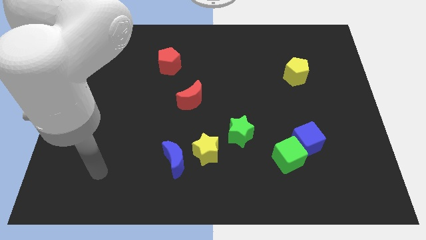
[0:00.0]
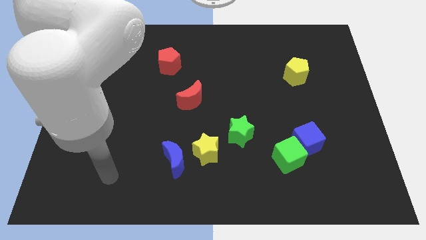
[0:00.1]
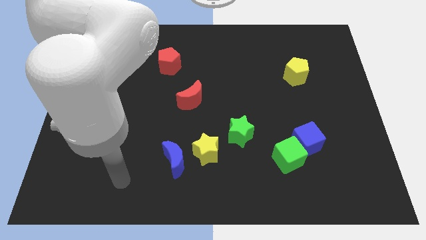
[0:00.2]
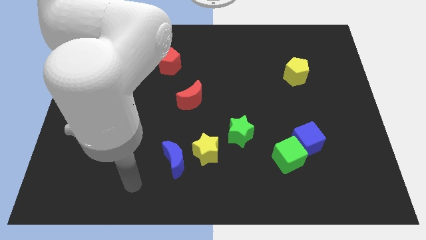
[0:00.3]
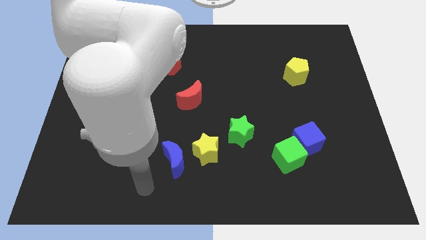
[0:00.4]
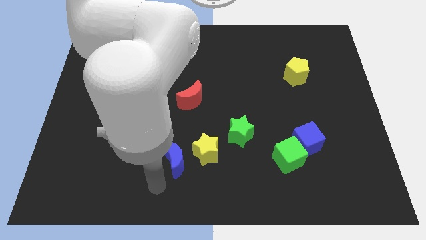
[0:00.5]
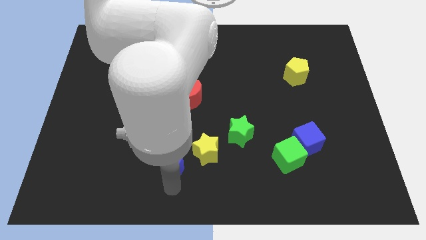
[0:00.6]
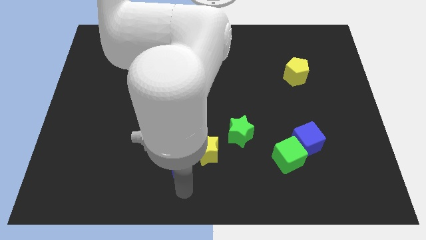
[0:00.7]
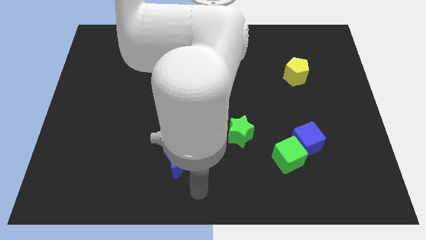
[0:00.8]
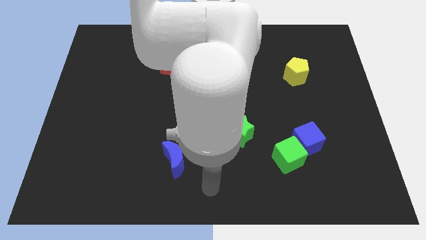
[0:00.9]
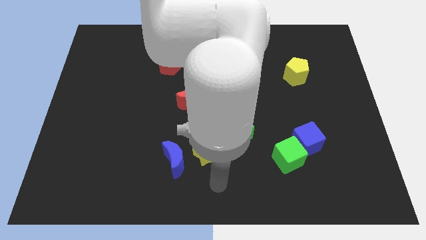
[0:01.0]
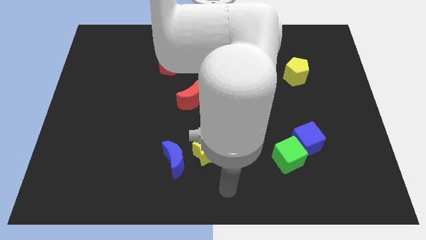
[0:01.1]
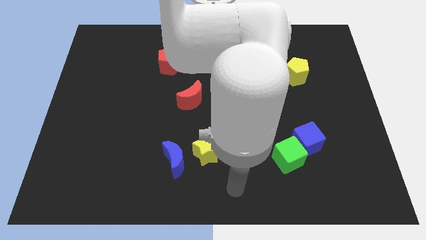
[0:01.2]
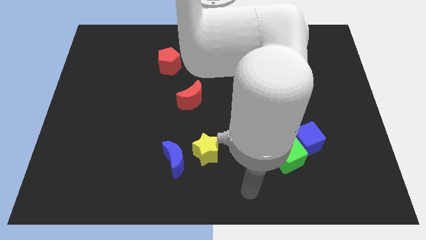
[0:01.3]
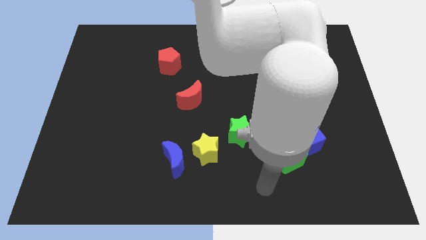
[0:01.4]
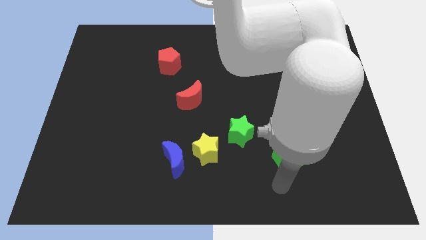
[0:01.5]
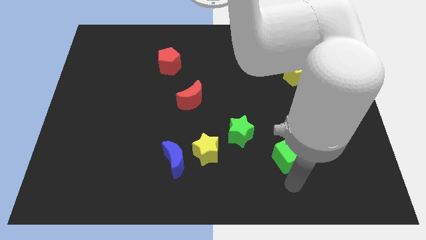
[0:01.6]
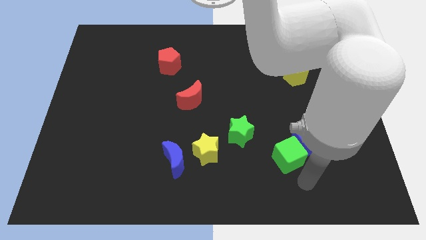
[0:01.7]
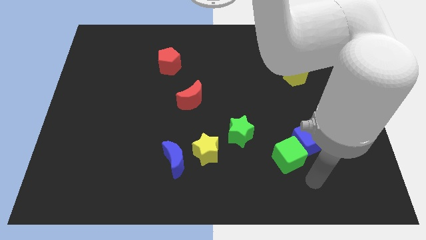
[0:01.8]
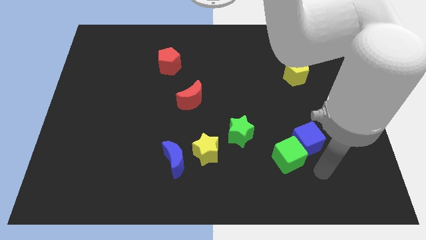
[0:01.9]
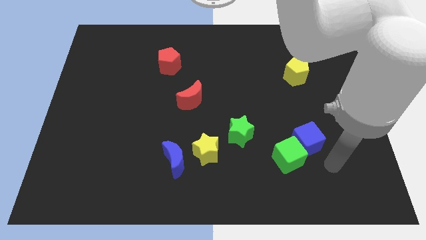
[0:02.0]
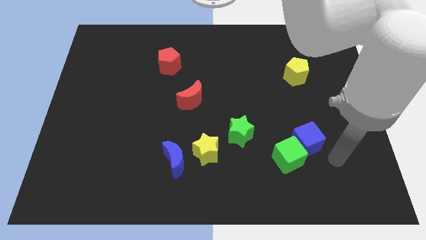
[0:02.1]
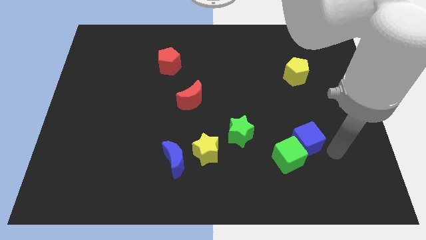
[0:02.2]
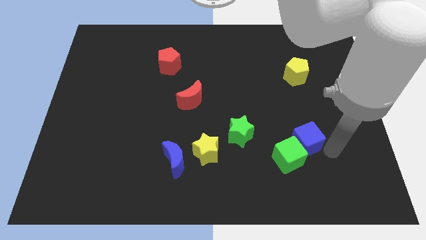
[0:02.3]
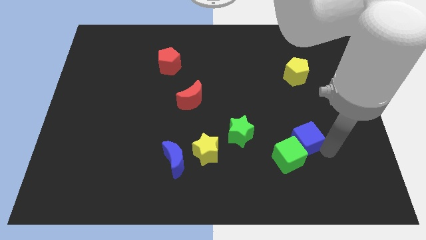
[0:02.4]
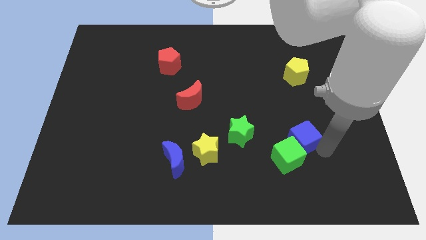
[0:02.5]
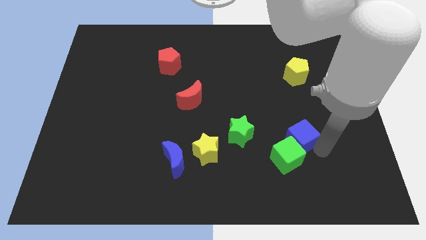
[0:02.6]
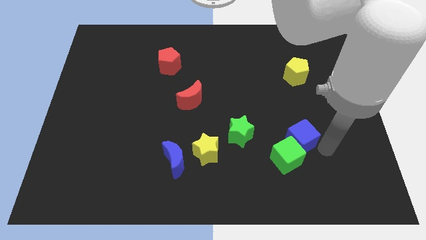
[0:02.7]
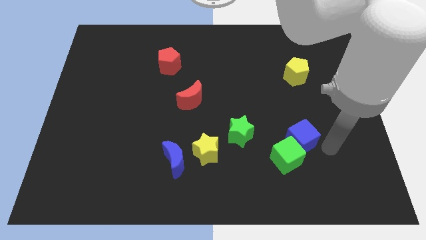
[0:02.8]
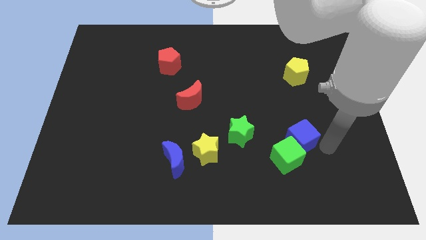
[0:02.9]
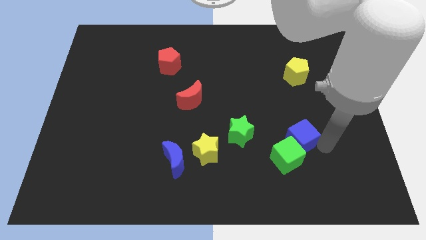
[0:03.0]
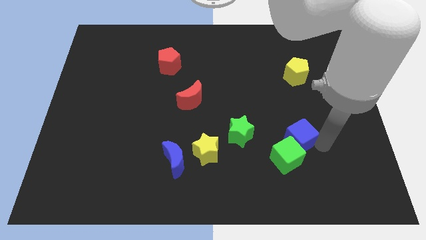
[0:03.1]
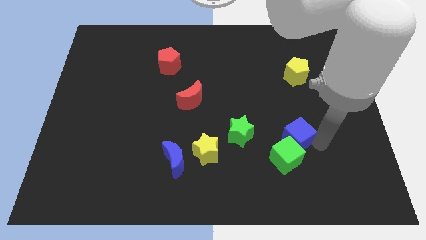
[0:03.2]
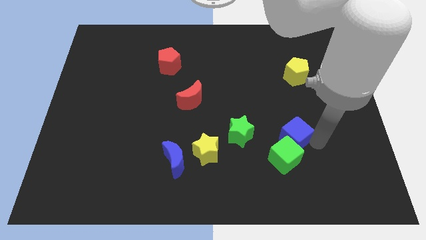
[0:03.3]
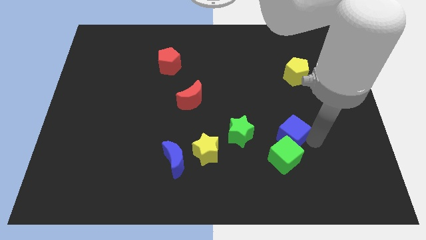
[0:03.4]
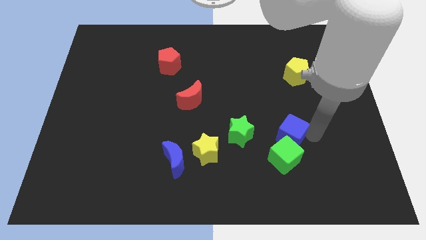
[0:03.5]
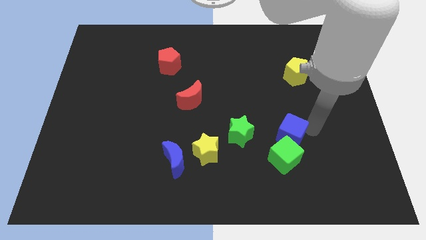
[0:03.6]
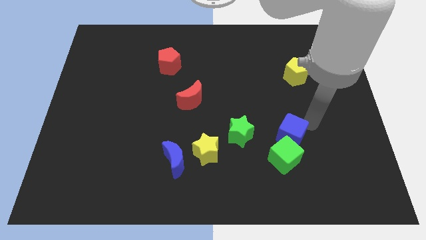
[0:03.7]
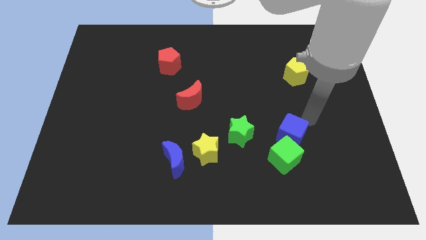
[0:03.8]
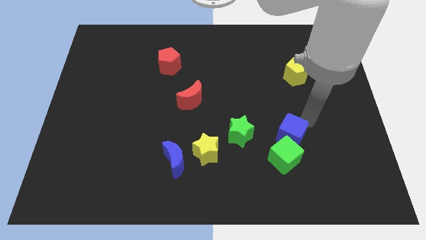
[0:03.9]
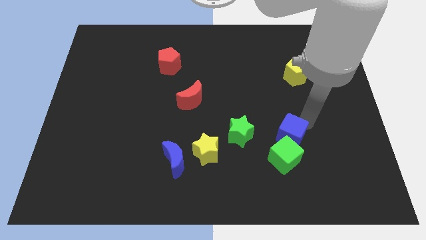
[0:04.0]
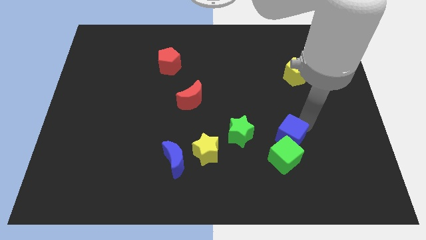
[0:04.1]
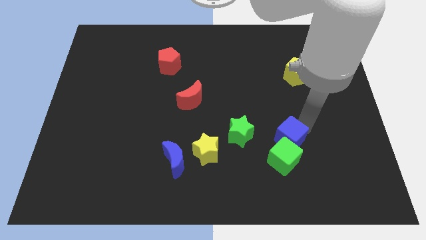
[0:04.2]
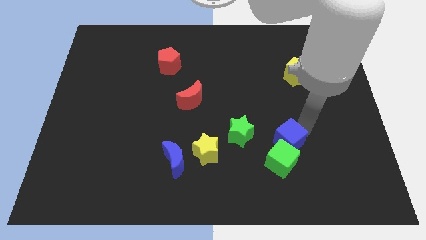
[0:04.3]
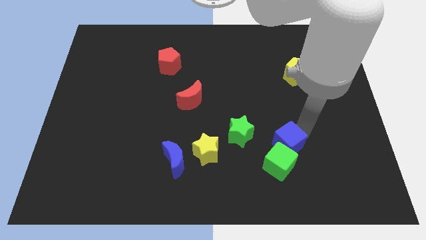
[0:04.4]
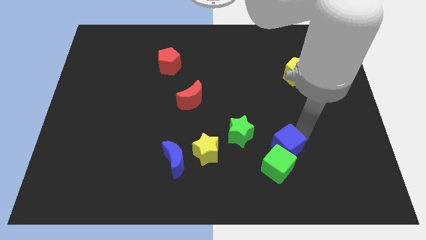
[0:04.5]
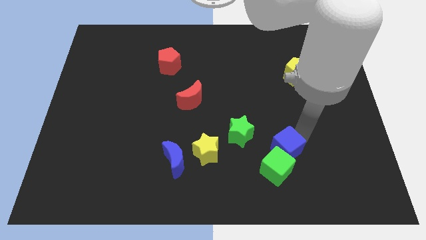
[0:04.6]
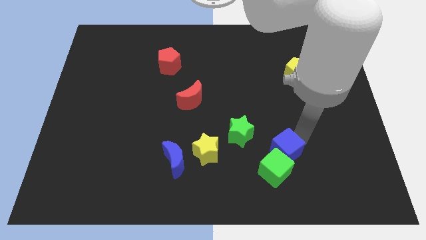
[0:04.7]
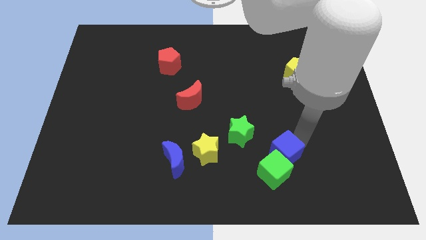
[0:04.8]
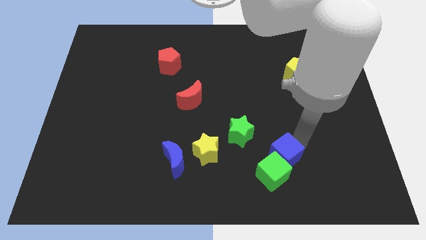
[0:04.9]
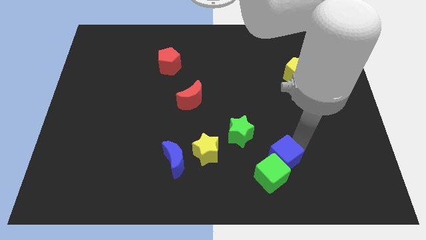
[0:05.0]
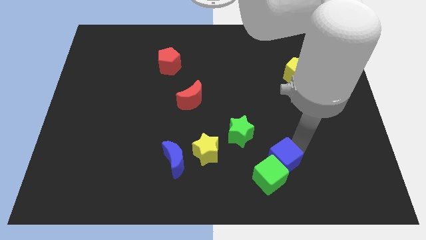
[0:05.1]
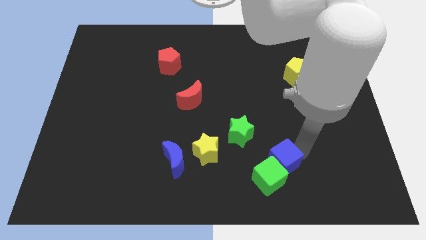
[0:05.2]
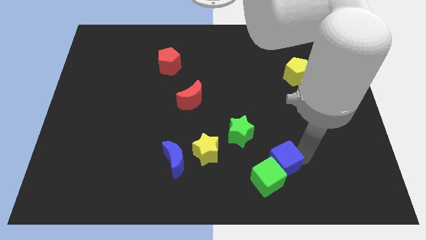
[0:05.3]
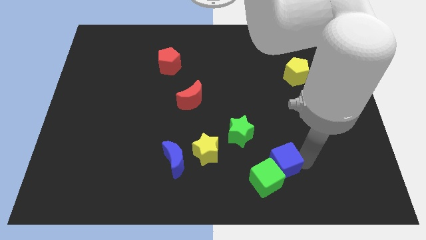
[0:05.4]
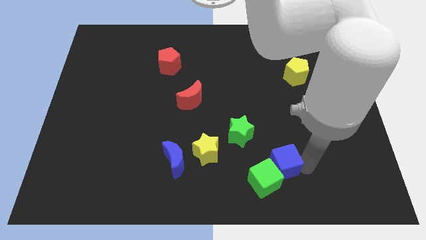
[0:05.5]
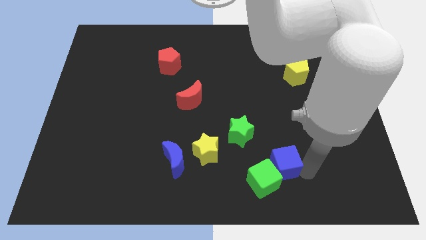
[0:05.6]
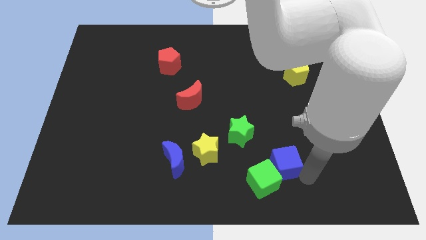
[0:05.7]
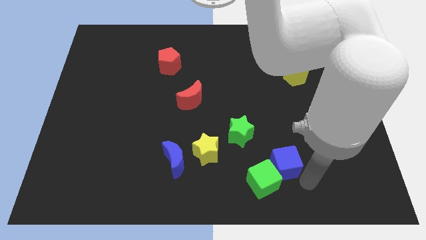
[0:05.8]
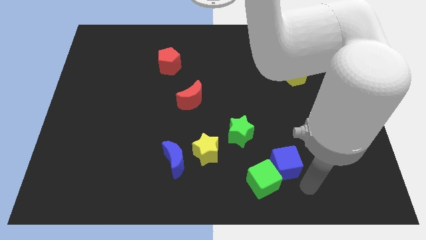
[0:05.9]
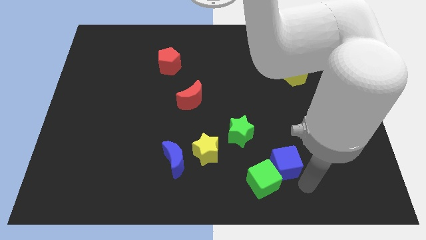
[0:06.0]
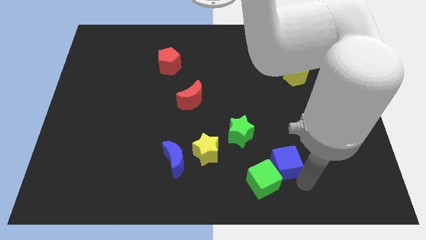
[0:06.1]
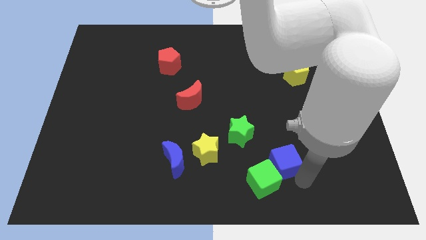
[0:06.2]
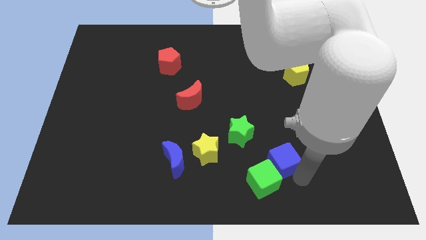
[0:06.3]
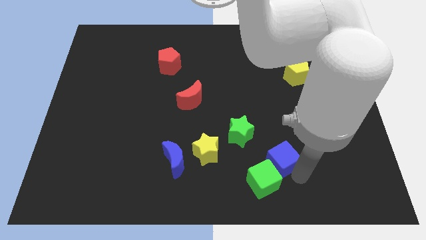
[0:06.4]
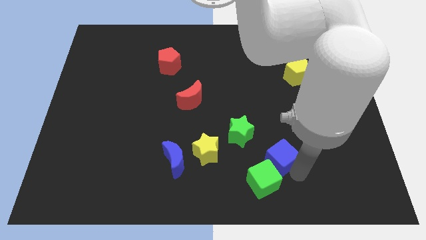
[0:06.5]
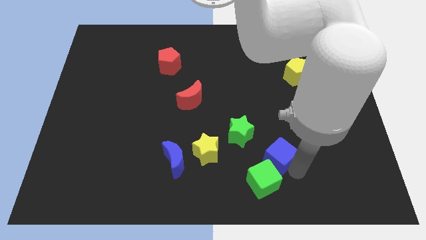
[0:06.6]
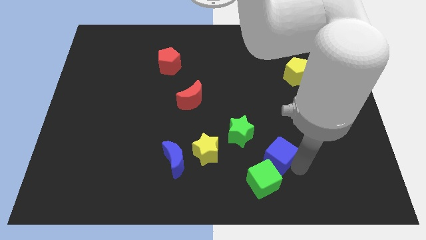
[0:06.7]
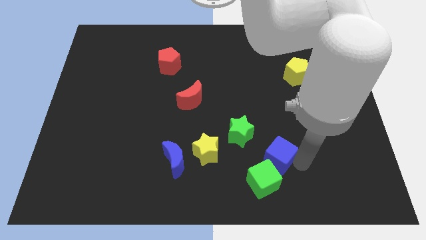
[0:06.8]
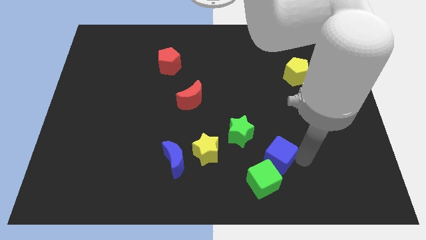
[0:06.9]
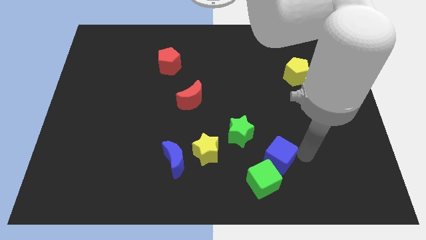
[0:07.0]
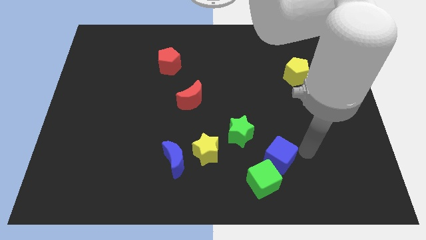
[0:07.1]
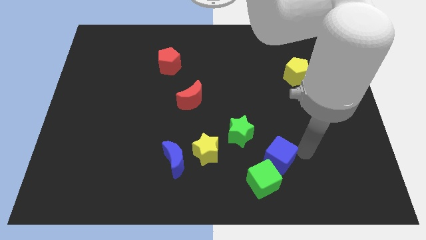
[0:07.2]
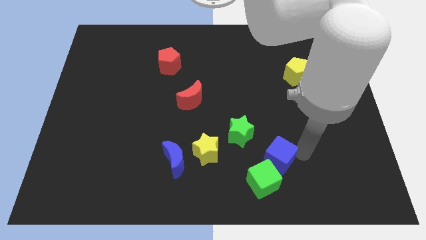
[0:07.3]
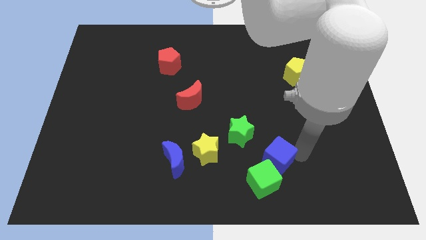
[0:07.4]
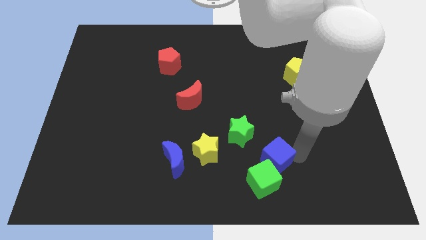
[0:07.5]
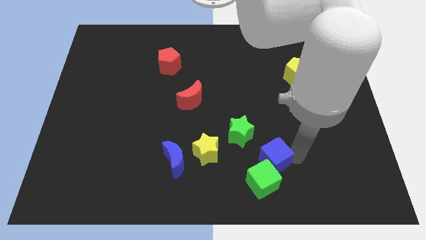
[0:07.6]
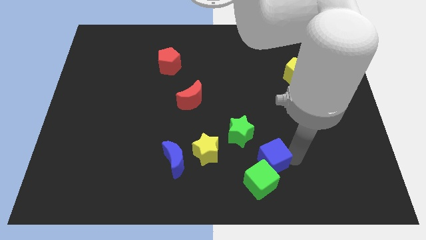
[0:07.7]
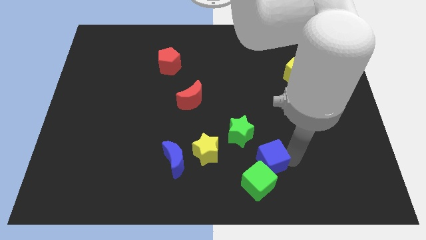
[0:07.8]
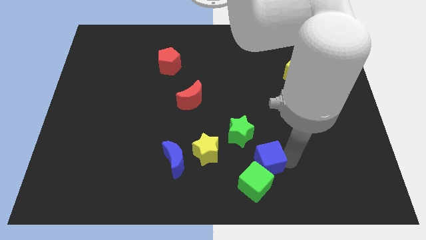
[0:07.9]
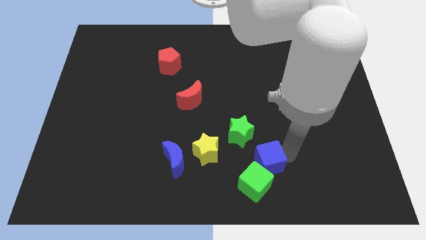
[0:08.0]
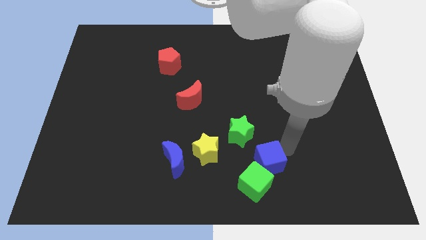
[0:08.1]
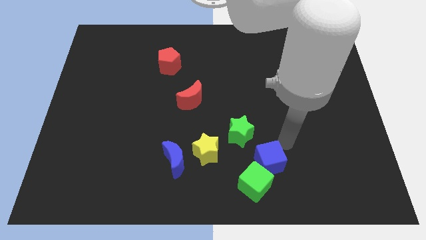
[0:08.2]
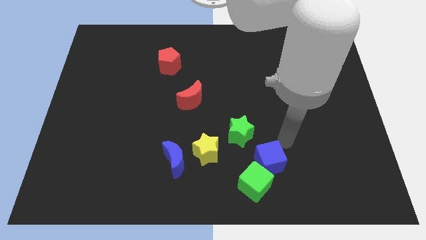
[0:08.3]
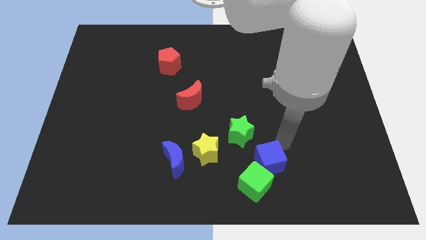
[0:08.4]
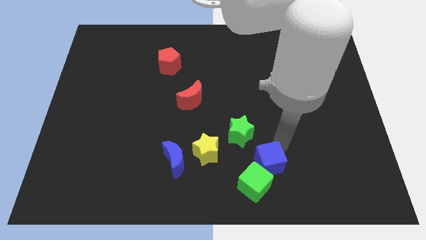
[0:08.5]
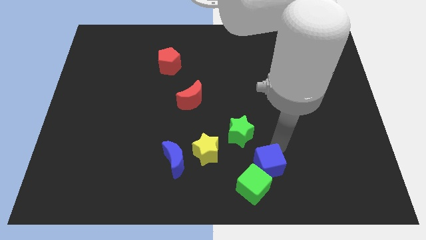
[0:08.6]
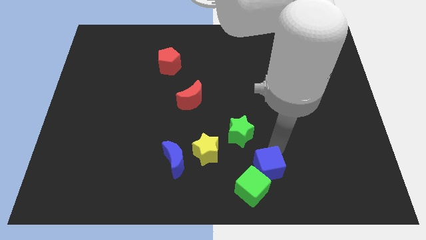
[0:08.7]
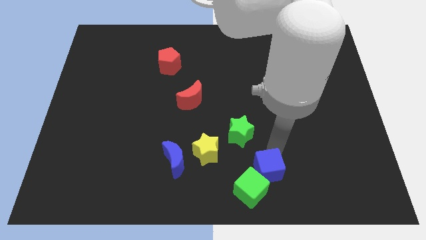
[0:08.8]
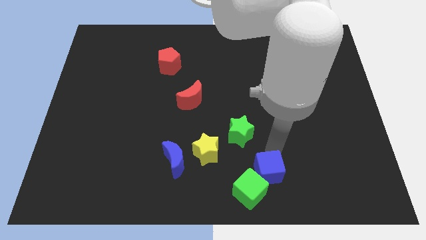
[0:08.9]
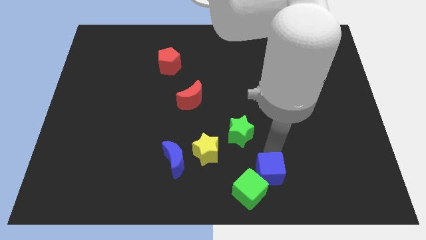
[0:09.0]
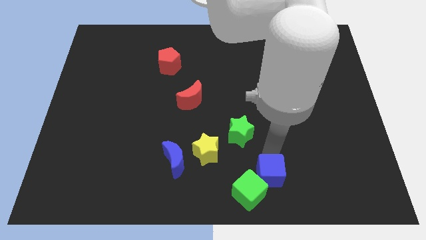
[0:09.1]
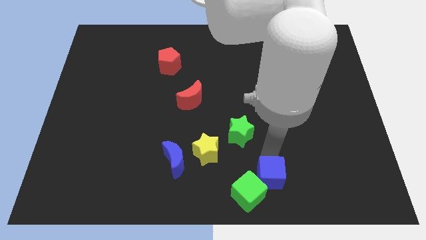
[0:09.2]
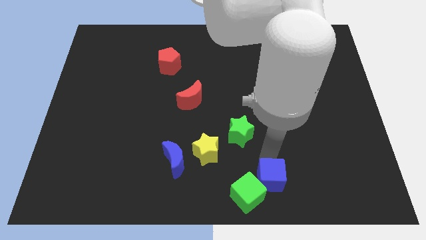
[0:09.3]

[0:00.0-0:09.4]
move the blue cube to the bottom
